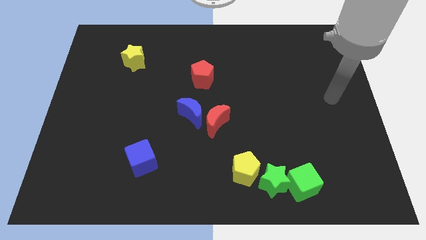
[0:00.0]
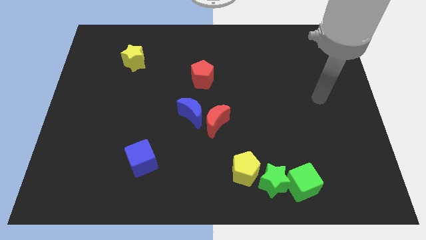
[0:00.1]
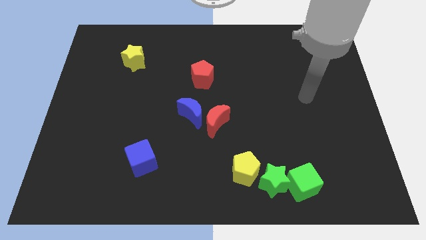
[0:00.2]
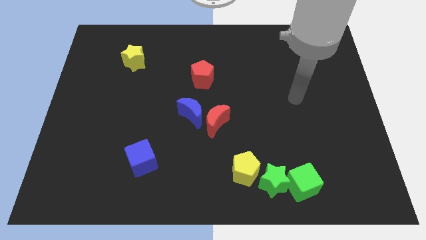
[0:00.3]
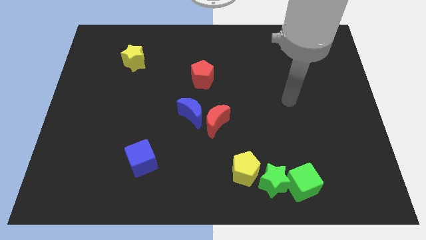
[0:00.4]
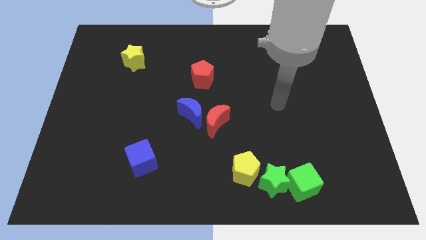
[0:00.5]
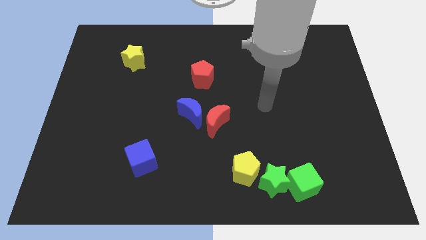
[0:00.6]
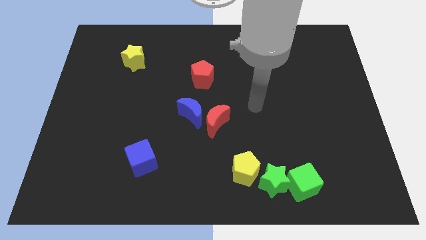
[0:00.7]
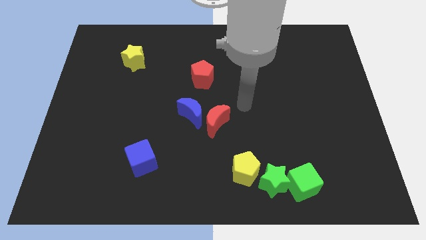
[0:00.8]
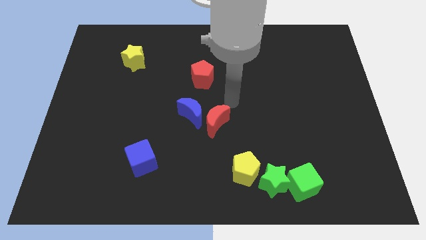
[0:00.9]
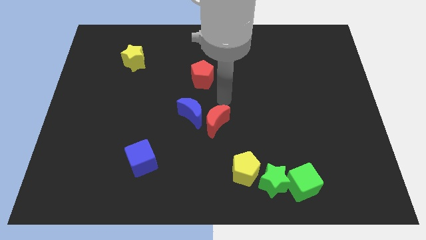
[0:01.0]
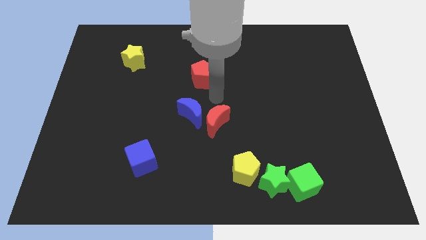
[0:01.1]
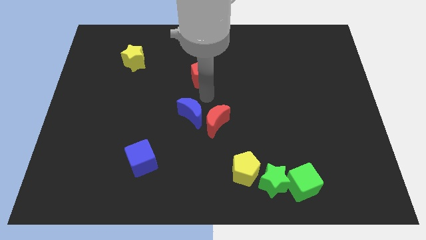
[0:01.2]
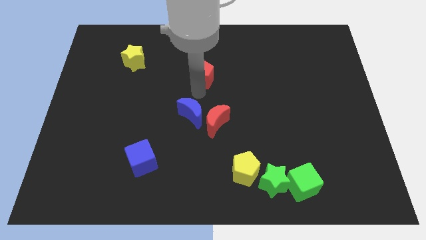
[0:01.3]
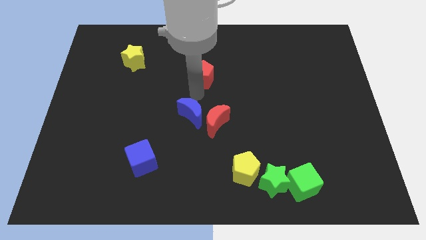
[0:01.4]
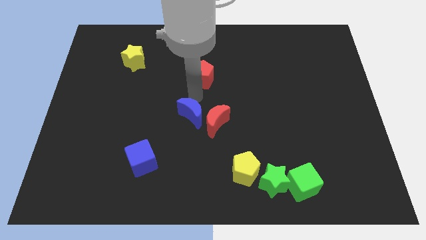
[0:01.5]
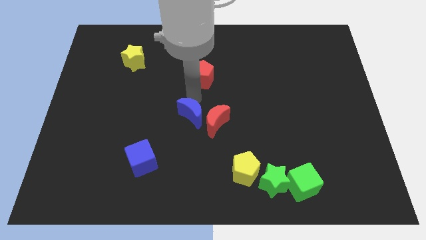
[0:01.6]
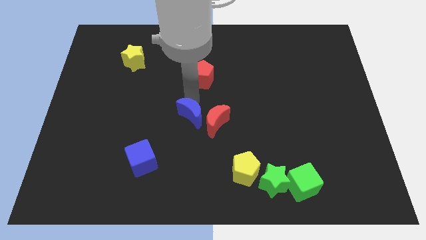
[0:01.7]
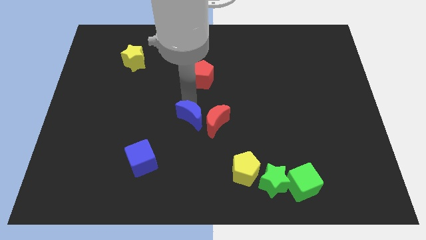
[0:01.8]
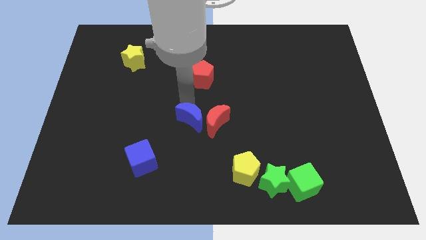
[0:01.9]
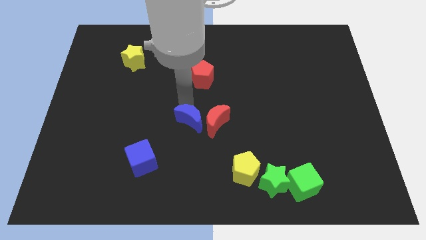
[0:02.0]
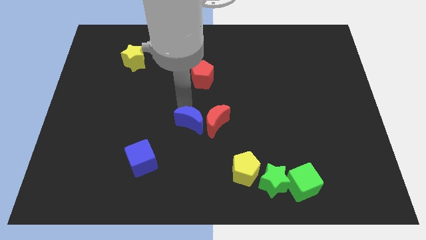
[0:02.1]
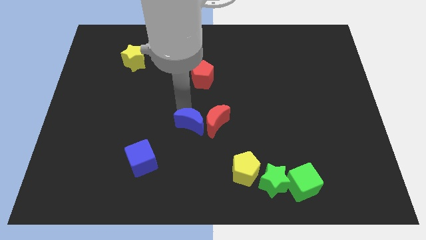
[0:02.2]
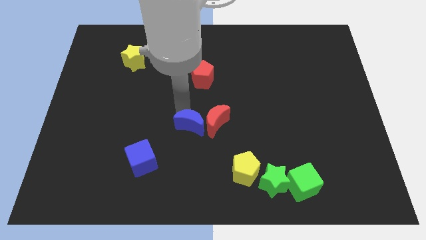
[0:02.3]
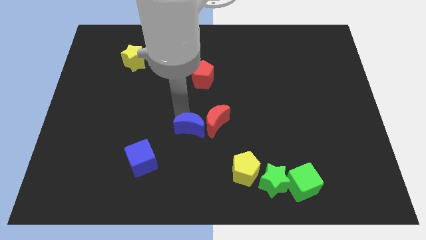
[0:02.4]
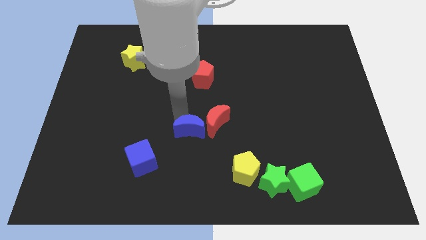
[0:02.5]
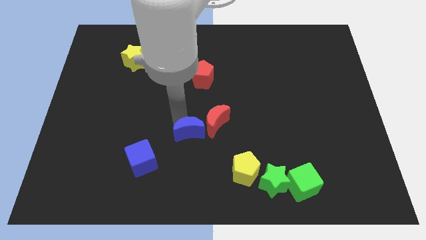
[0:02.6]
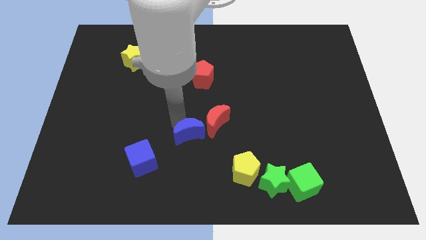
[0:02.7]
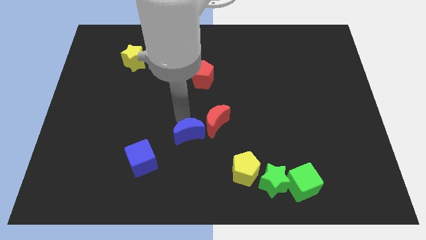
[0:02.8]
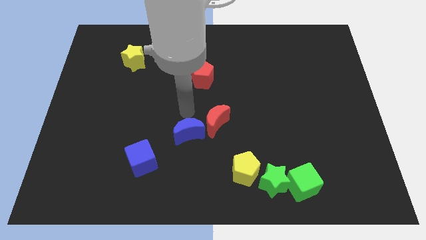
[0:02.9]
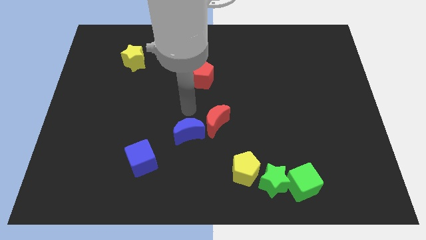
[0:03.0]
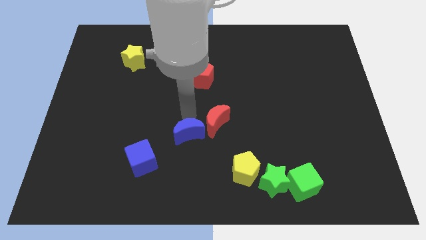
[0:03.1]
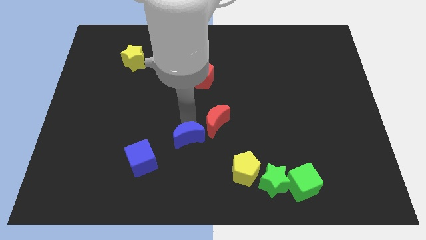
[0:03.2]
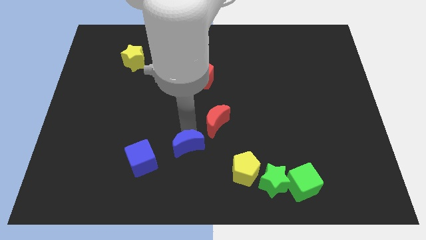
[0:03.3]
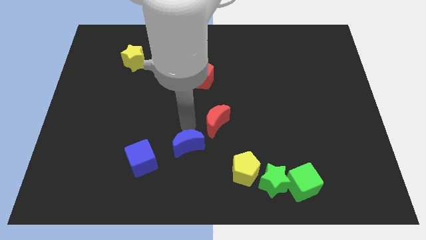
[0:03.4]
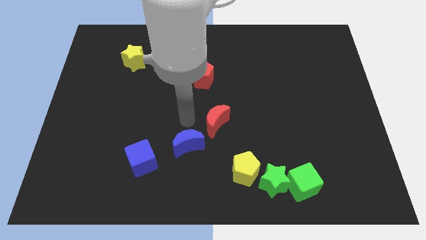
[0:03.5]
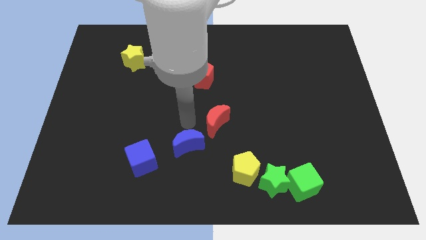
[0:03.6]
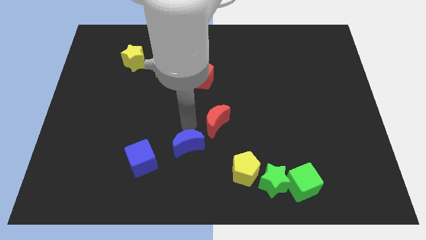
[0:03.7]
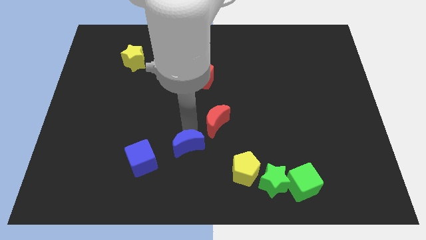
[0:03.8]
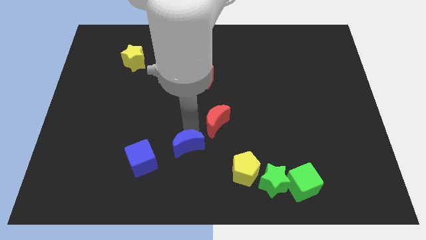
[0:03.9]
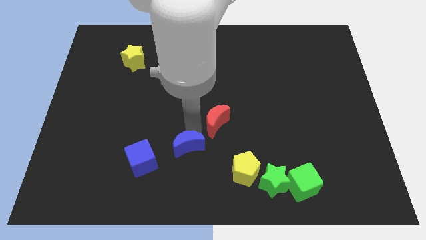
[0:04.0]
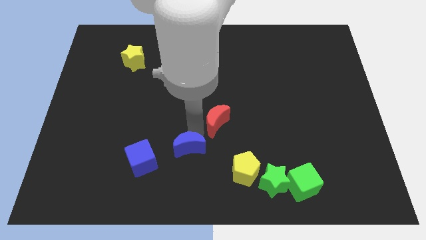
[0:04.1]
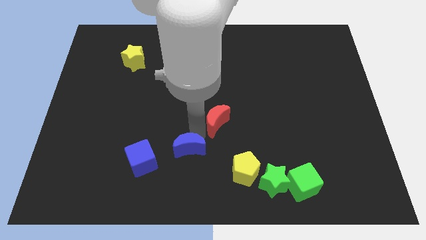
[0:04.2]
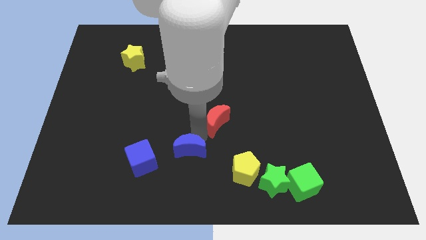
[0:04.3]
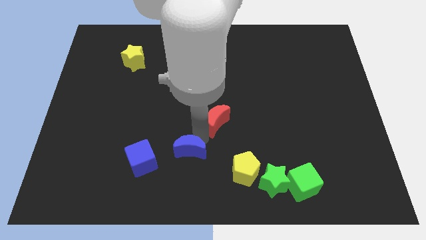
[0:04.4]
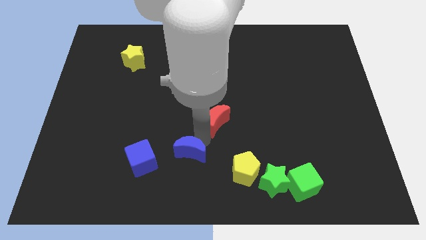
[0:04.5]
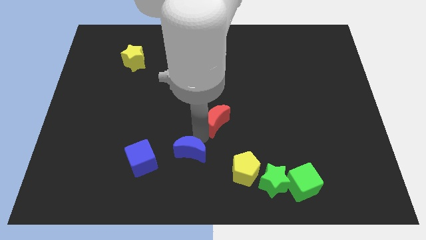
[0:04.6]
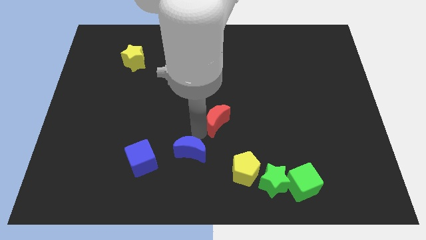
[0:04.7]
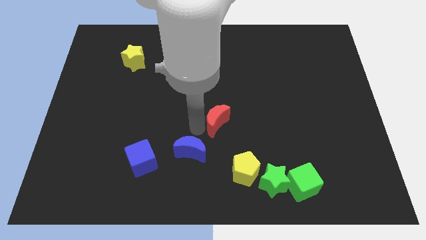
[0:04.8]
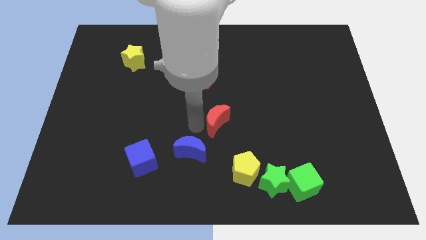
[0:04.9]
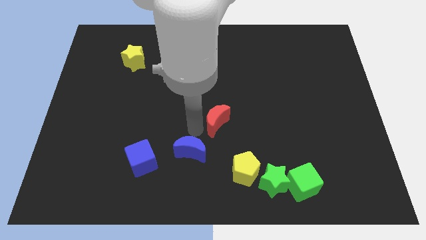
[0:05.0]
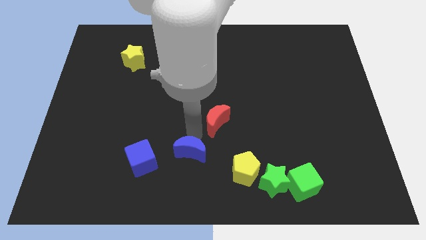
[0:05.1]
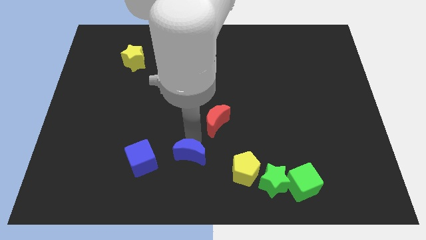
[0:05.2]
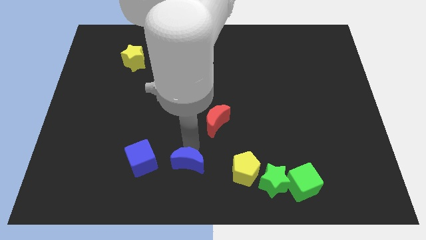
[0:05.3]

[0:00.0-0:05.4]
move the blue moon to the bottom

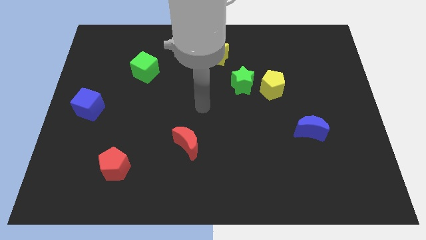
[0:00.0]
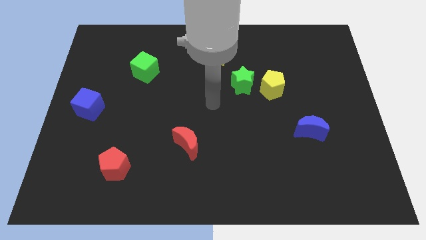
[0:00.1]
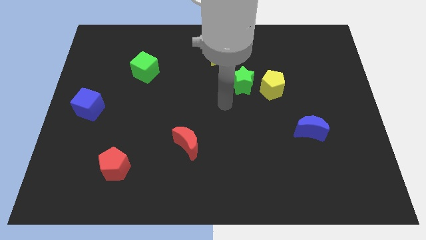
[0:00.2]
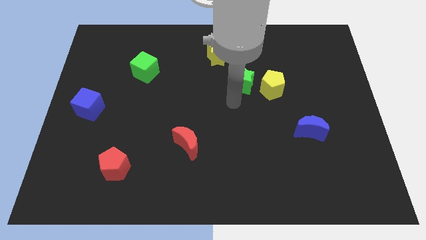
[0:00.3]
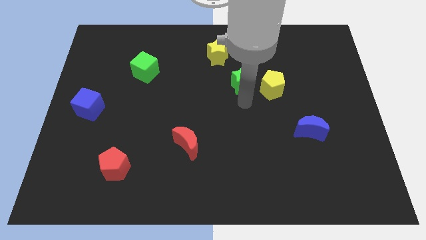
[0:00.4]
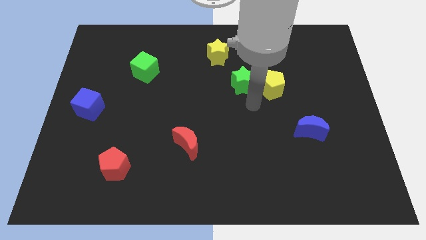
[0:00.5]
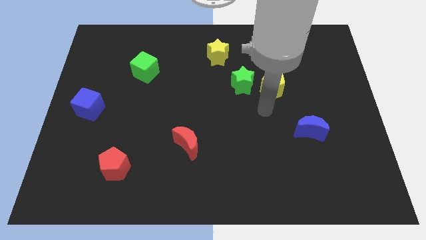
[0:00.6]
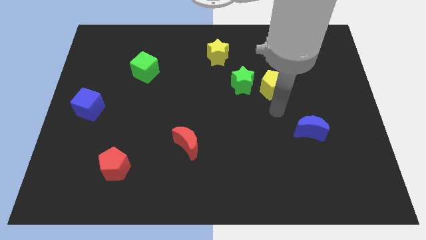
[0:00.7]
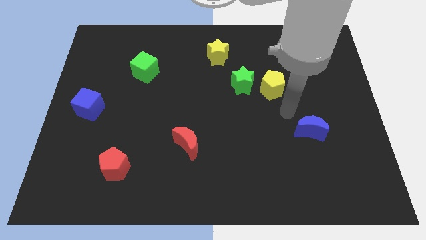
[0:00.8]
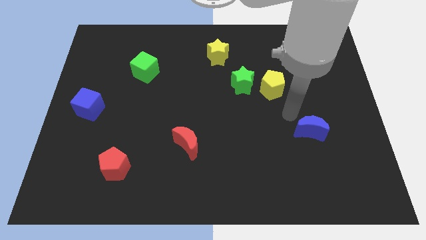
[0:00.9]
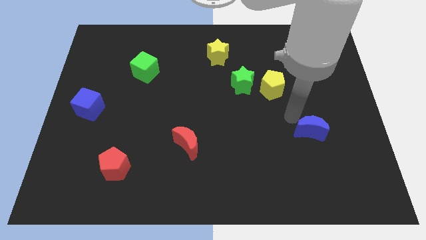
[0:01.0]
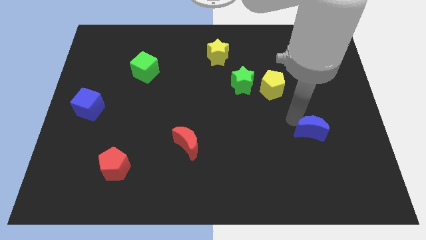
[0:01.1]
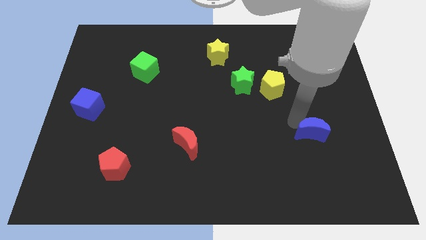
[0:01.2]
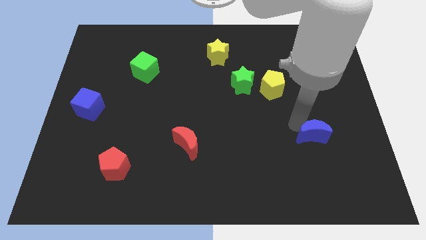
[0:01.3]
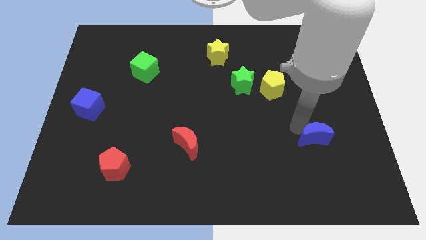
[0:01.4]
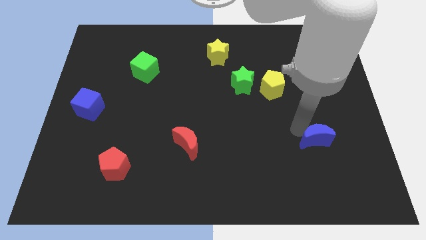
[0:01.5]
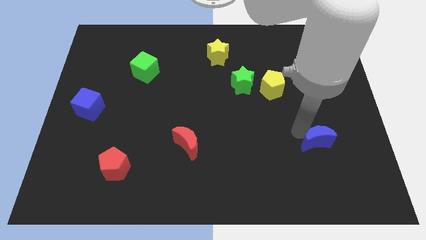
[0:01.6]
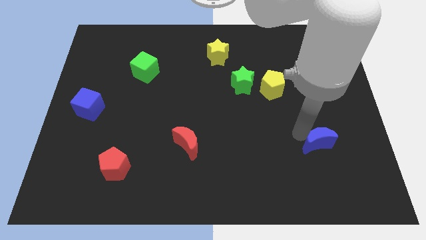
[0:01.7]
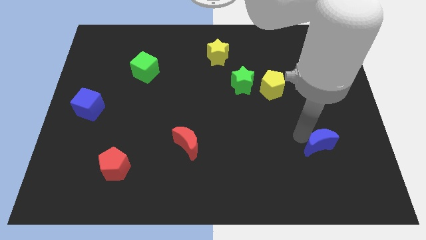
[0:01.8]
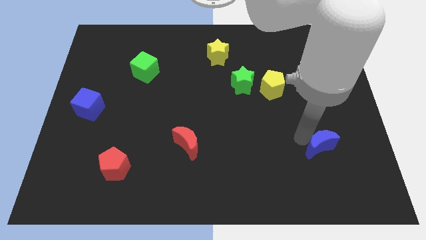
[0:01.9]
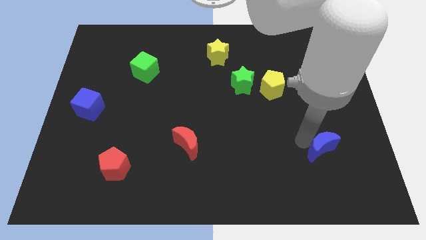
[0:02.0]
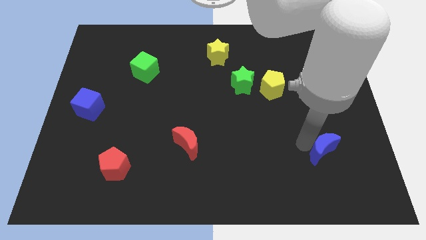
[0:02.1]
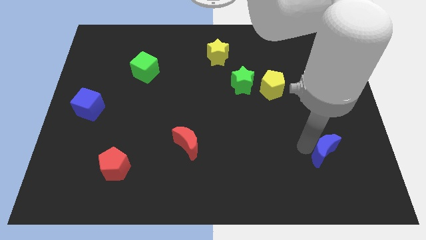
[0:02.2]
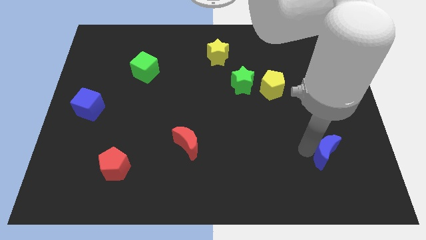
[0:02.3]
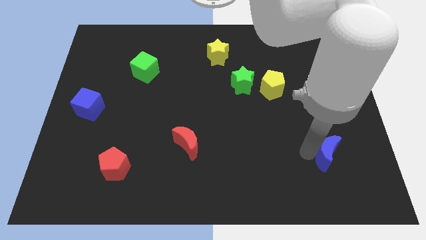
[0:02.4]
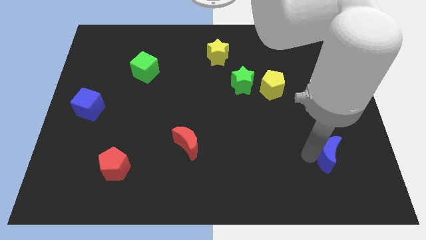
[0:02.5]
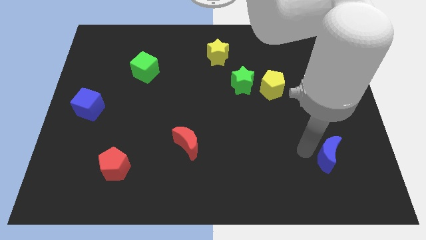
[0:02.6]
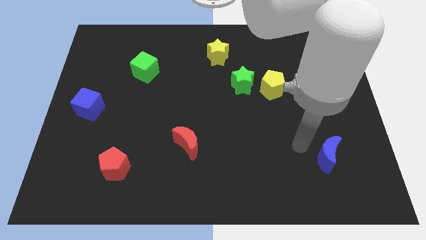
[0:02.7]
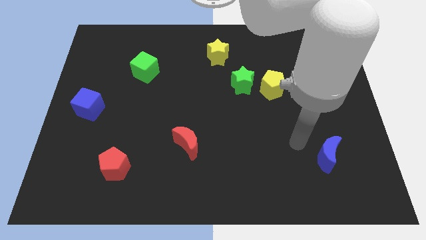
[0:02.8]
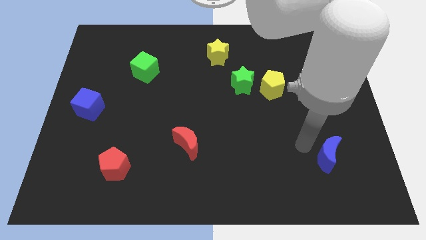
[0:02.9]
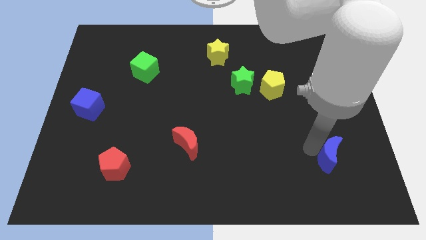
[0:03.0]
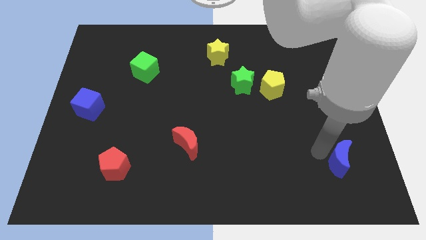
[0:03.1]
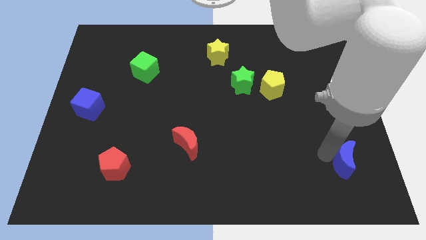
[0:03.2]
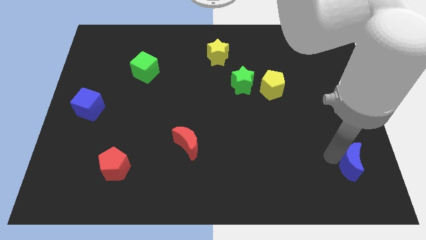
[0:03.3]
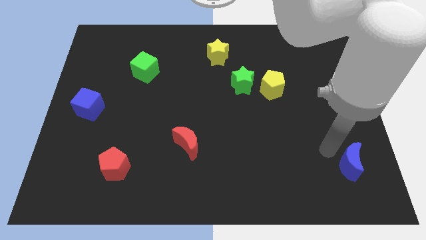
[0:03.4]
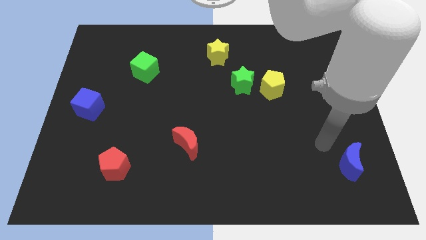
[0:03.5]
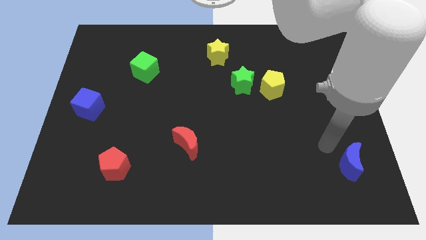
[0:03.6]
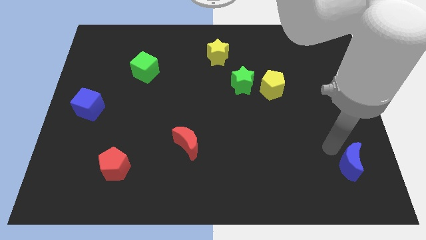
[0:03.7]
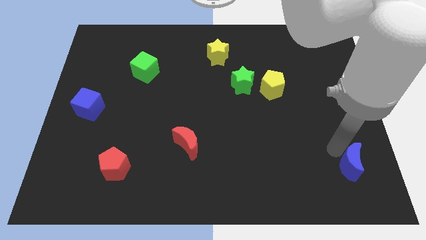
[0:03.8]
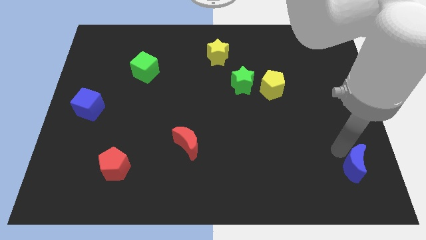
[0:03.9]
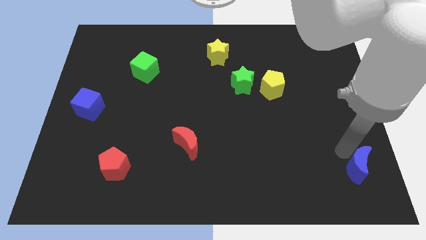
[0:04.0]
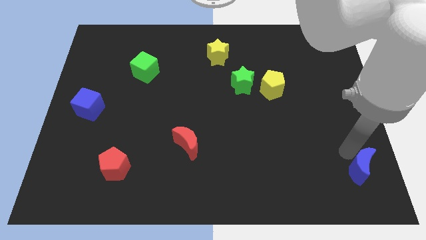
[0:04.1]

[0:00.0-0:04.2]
put the blue moon to the bottom right corner
